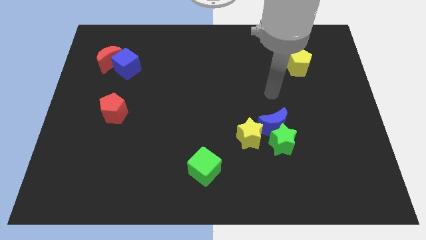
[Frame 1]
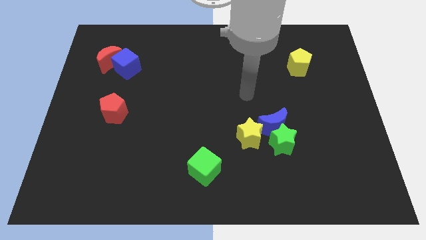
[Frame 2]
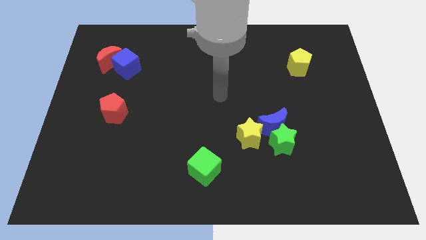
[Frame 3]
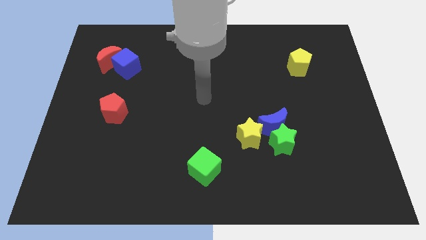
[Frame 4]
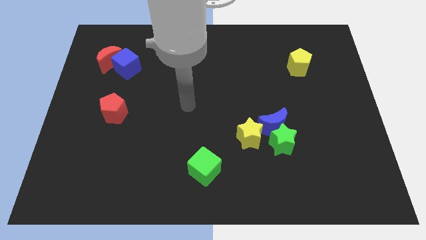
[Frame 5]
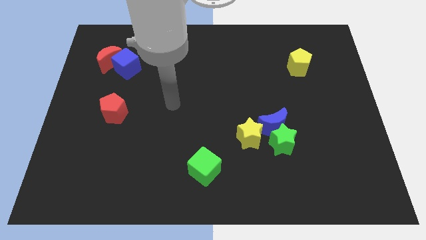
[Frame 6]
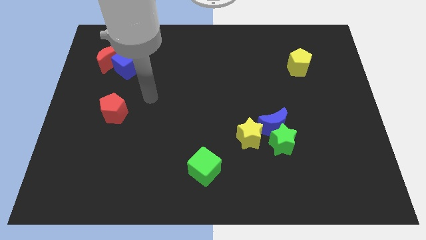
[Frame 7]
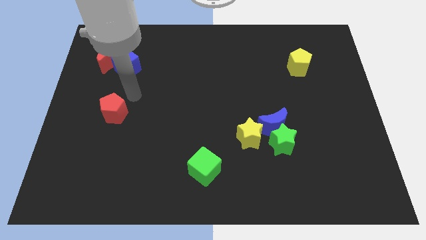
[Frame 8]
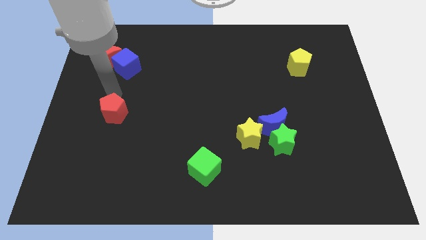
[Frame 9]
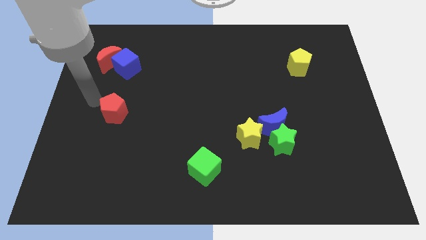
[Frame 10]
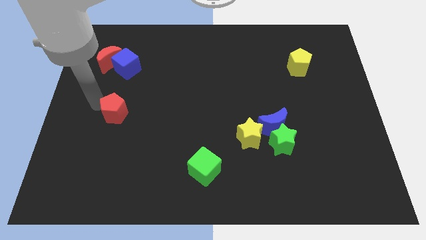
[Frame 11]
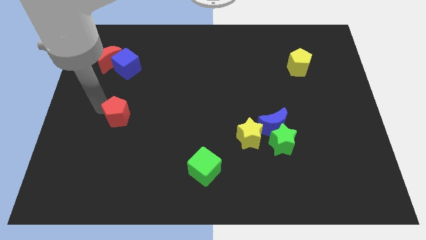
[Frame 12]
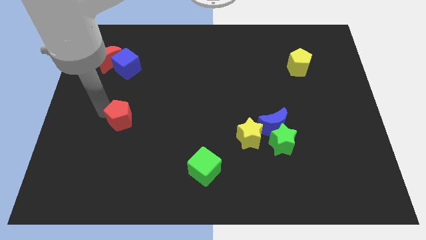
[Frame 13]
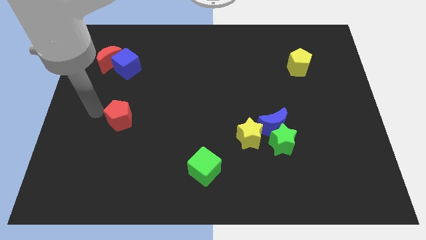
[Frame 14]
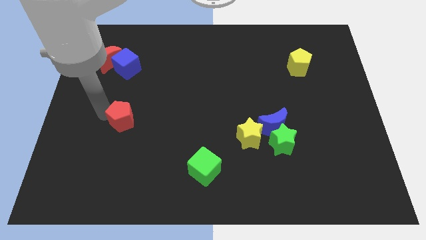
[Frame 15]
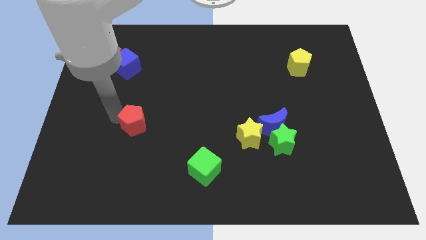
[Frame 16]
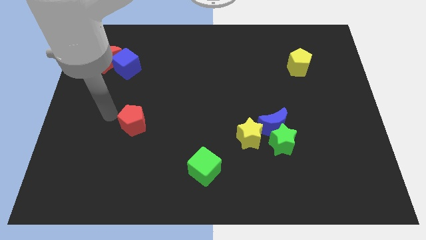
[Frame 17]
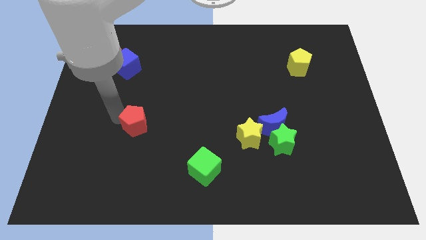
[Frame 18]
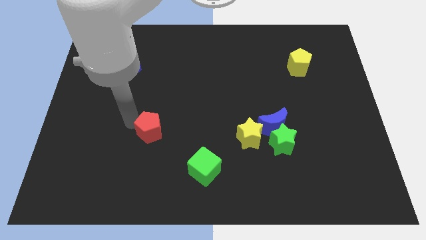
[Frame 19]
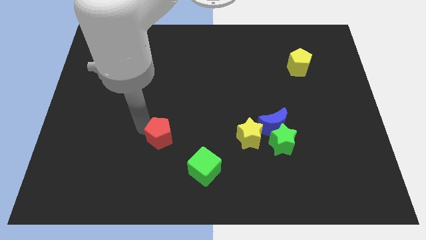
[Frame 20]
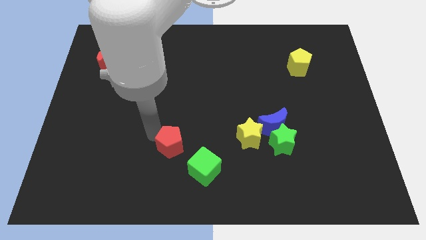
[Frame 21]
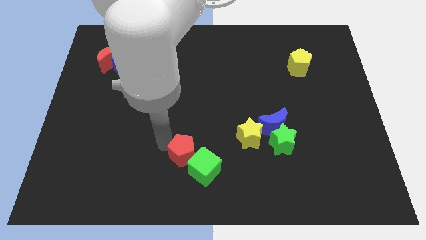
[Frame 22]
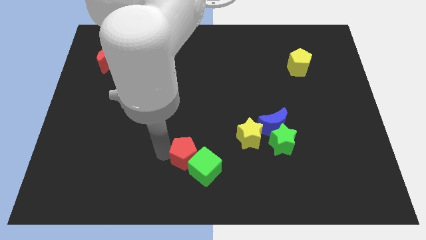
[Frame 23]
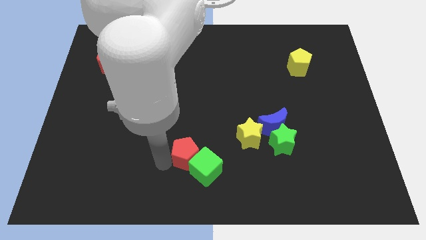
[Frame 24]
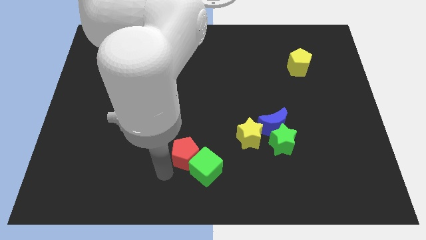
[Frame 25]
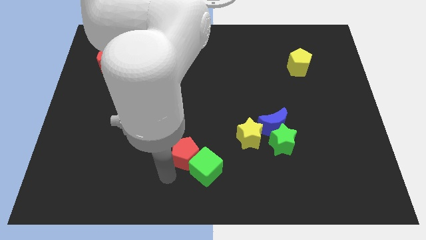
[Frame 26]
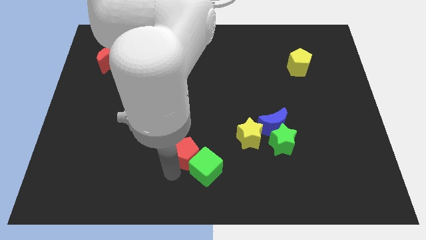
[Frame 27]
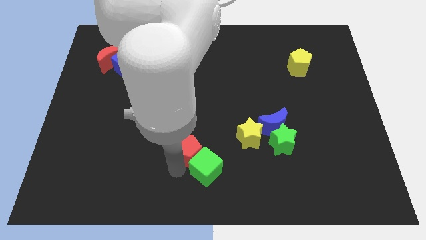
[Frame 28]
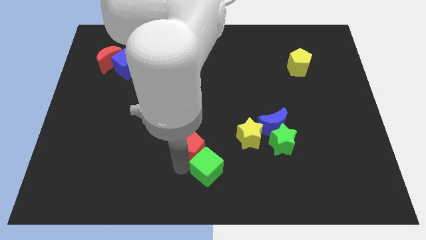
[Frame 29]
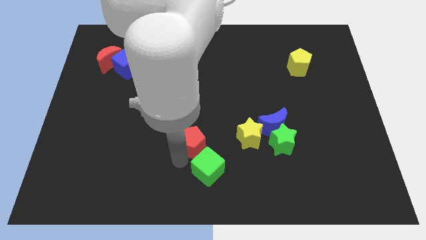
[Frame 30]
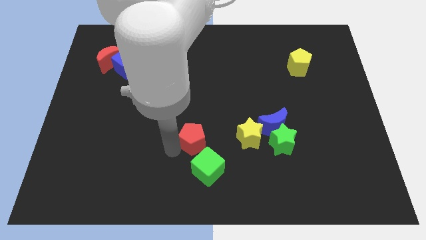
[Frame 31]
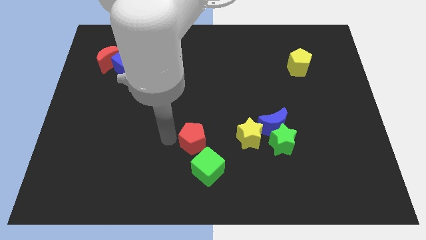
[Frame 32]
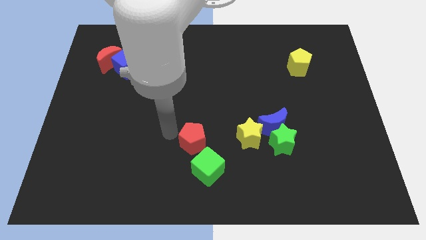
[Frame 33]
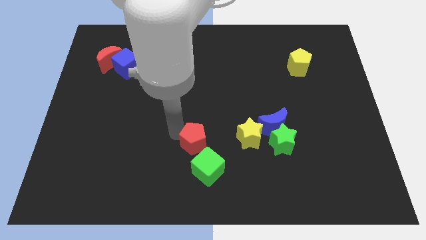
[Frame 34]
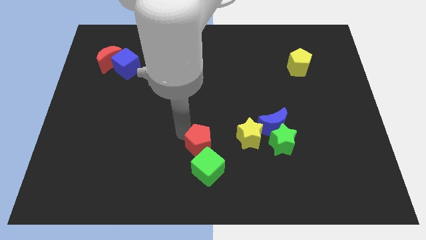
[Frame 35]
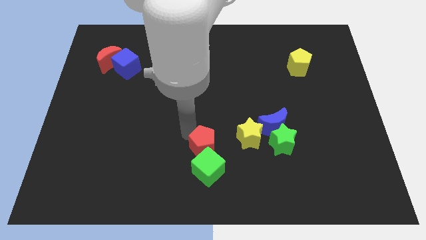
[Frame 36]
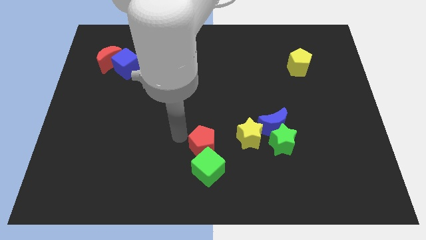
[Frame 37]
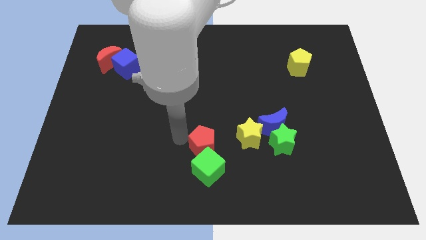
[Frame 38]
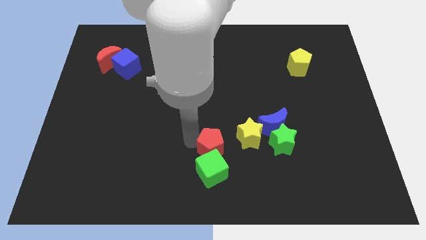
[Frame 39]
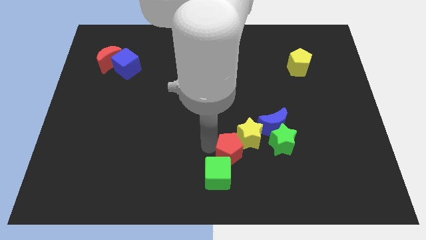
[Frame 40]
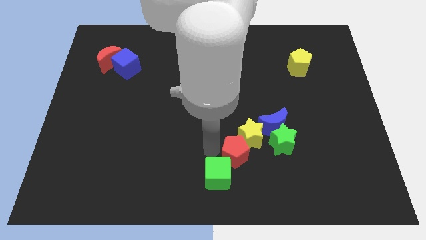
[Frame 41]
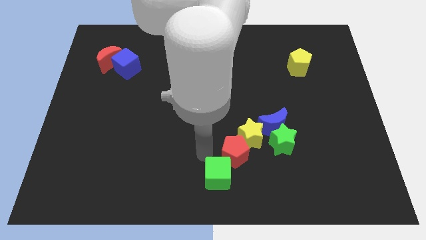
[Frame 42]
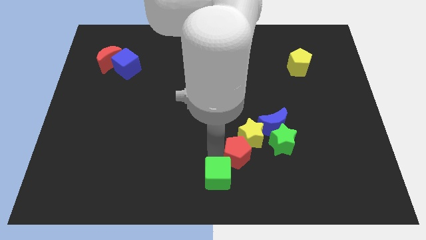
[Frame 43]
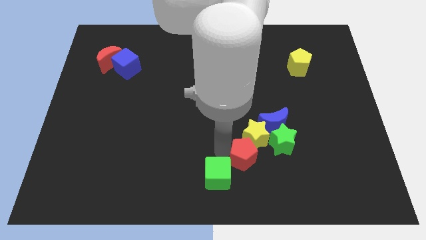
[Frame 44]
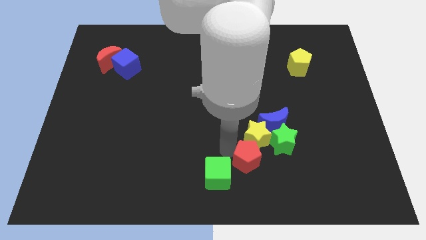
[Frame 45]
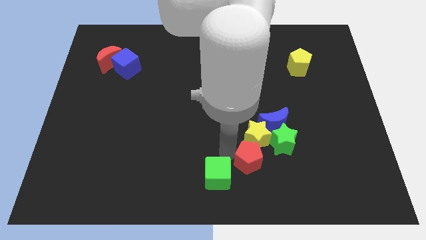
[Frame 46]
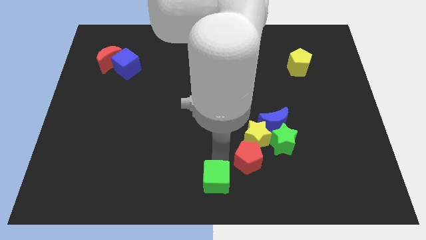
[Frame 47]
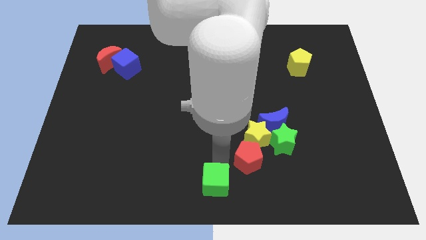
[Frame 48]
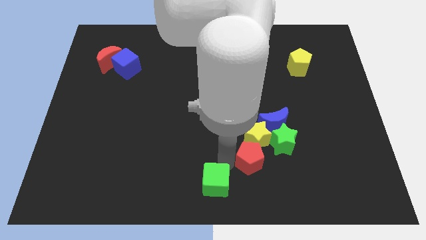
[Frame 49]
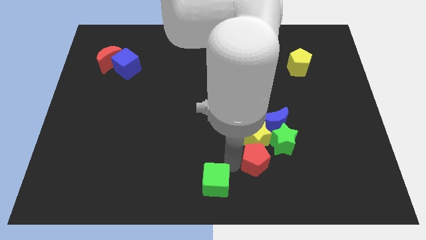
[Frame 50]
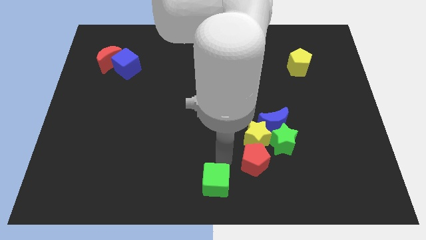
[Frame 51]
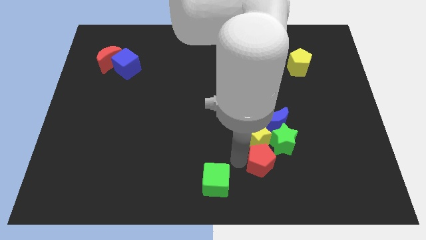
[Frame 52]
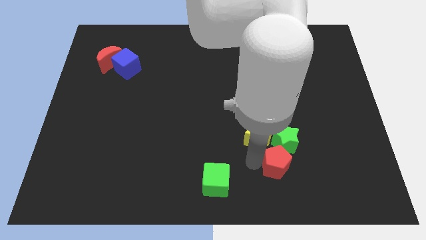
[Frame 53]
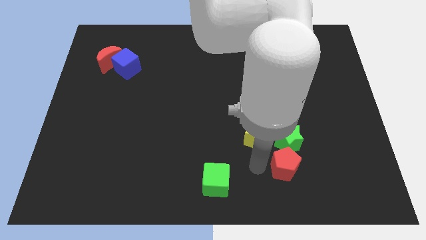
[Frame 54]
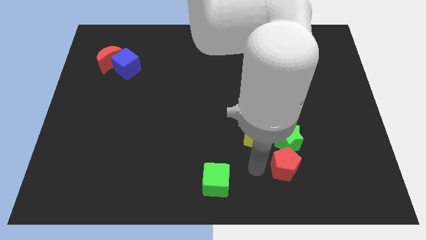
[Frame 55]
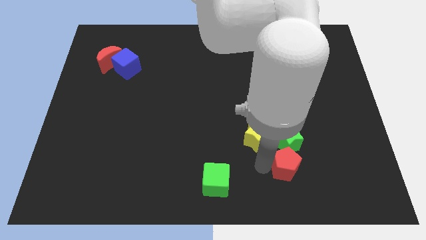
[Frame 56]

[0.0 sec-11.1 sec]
slide the red pentagon to the bottom right of the green star
